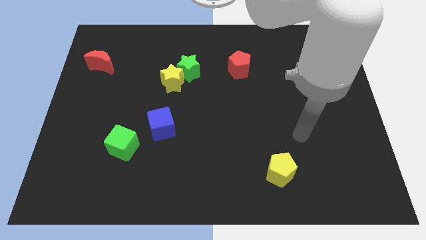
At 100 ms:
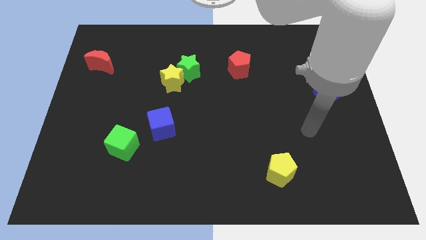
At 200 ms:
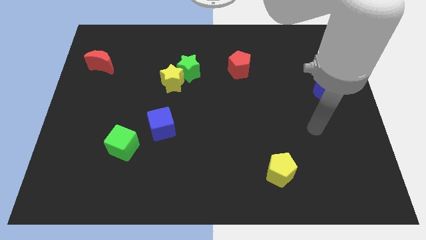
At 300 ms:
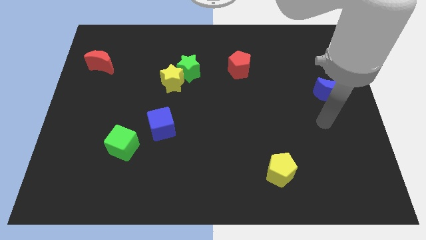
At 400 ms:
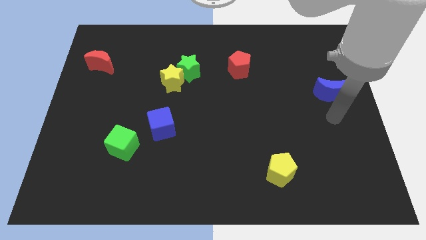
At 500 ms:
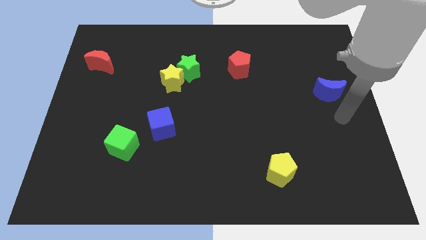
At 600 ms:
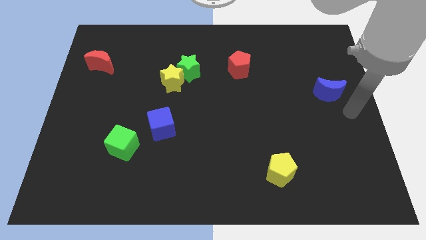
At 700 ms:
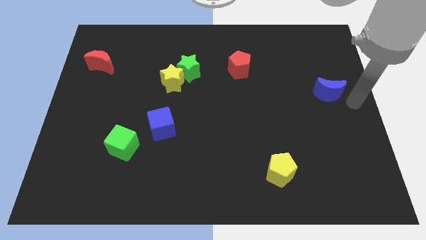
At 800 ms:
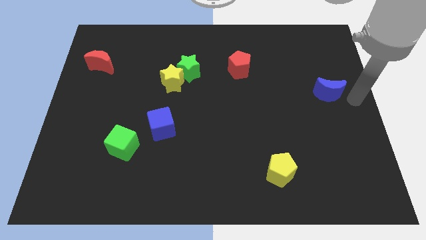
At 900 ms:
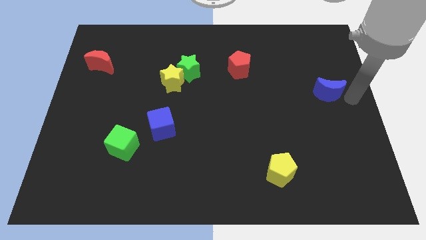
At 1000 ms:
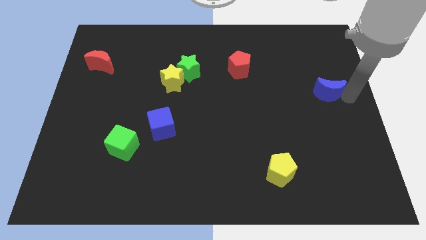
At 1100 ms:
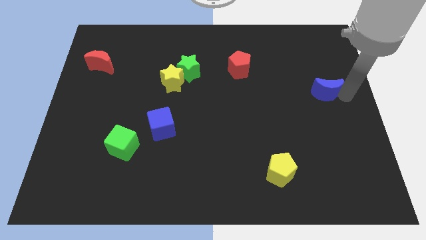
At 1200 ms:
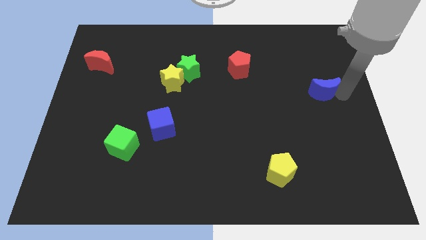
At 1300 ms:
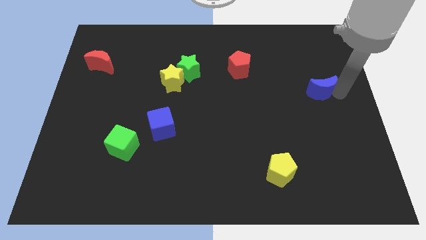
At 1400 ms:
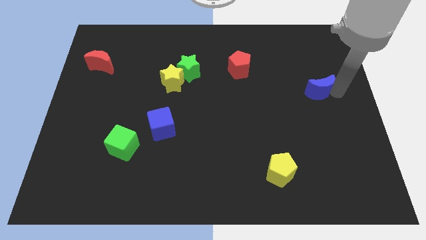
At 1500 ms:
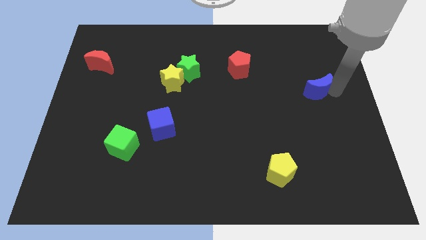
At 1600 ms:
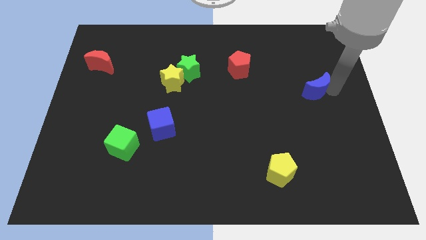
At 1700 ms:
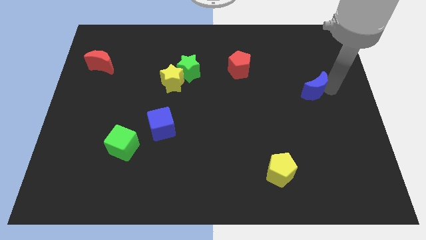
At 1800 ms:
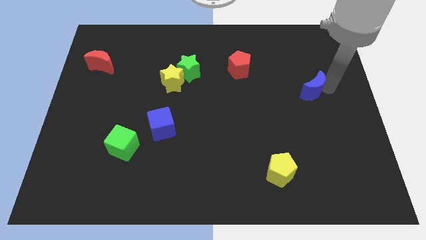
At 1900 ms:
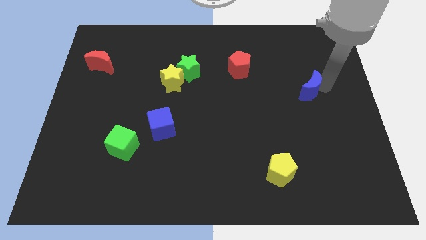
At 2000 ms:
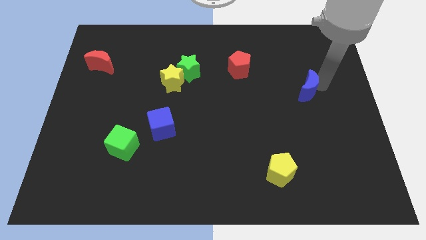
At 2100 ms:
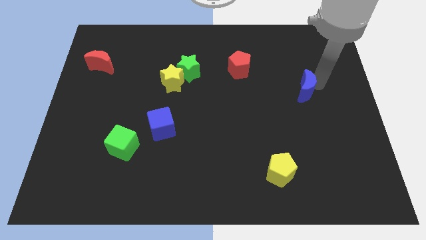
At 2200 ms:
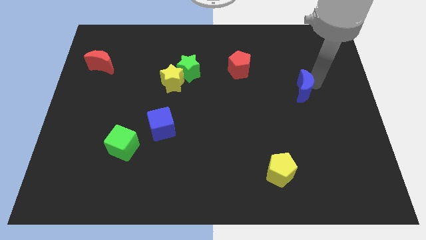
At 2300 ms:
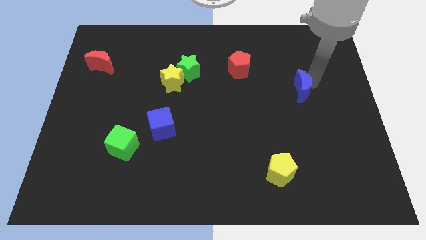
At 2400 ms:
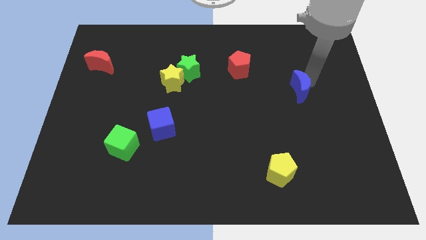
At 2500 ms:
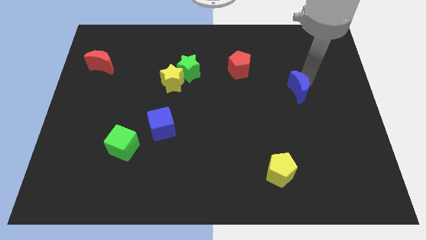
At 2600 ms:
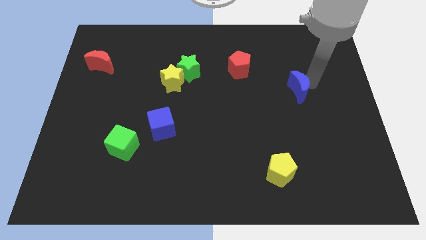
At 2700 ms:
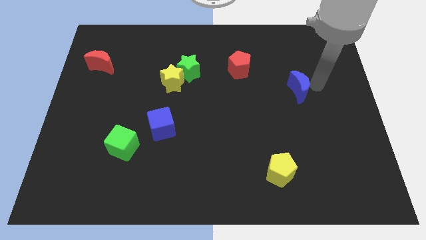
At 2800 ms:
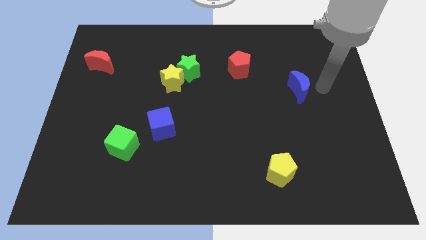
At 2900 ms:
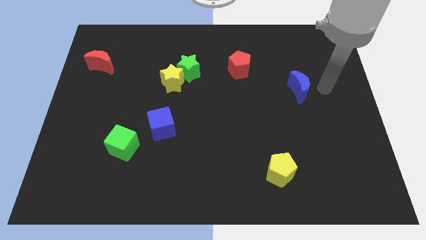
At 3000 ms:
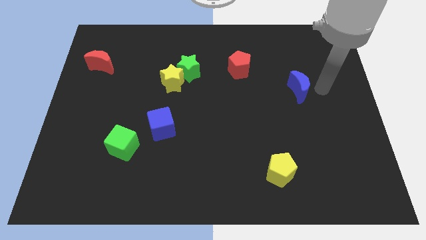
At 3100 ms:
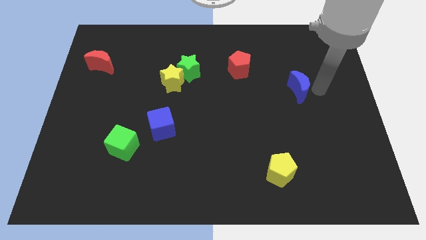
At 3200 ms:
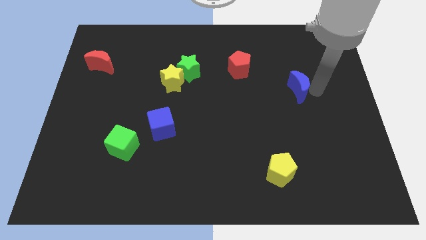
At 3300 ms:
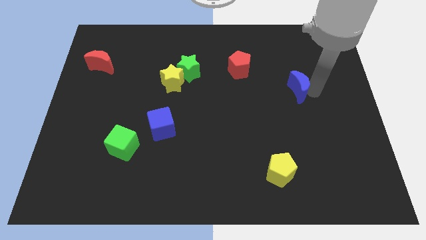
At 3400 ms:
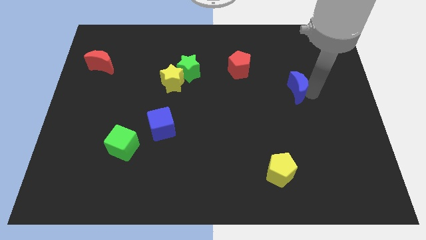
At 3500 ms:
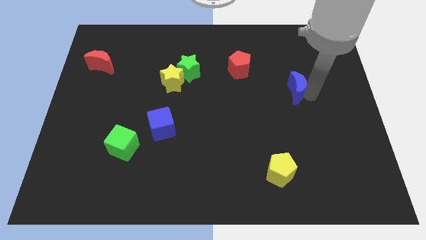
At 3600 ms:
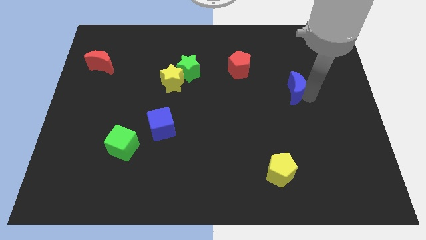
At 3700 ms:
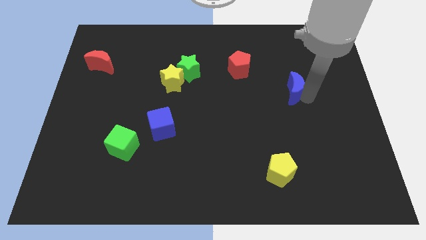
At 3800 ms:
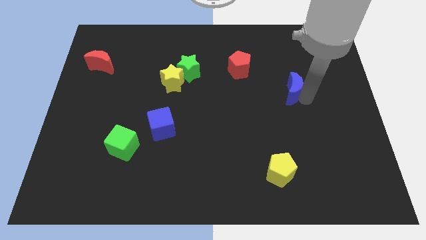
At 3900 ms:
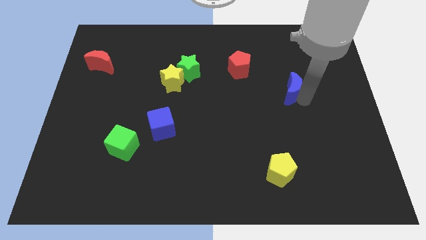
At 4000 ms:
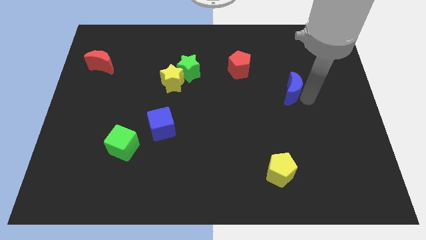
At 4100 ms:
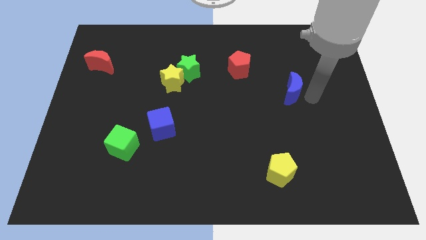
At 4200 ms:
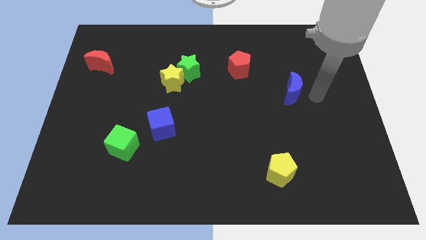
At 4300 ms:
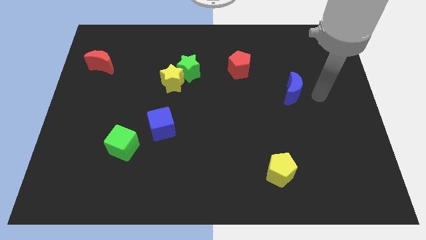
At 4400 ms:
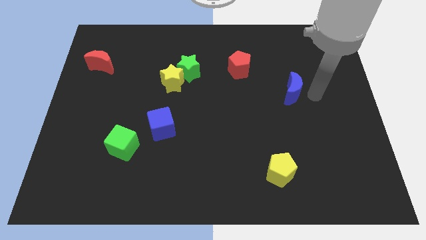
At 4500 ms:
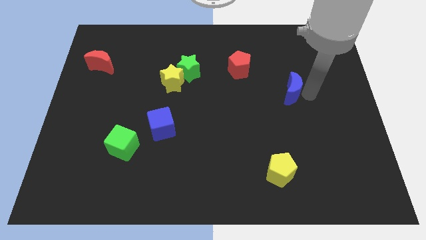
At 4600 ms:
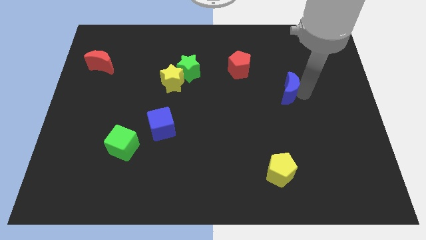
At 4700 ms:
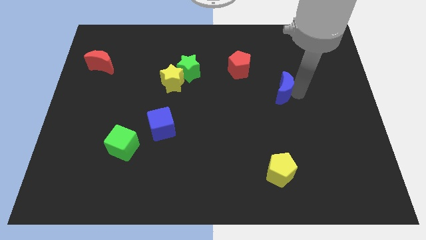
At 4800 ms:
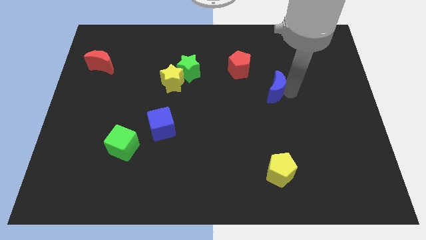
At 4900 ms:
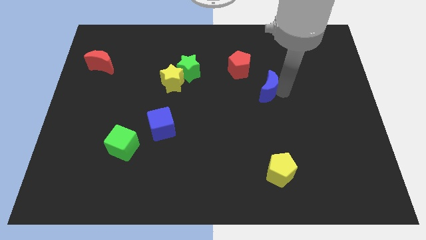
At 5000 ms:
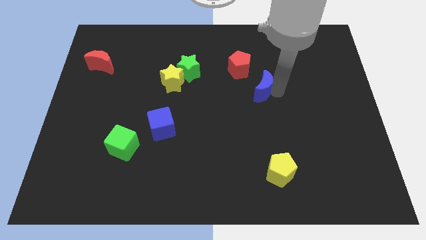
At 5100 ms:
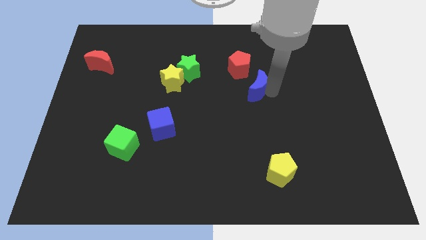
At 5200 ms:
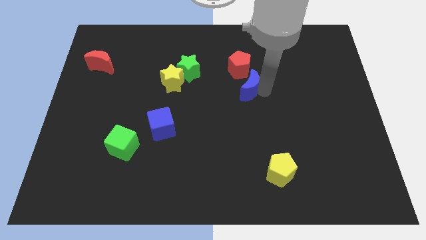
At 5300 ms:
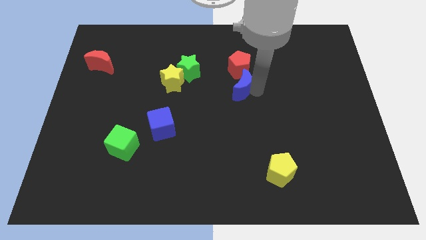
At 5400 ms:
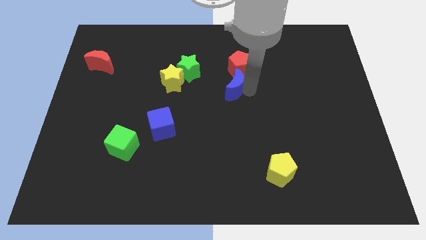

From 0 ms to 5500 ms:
push the blue moon right of the yellow star
